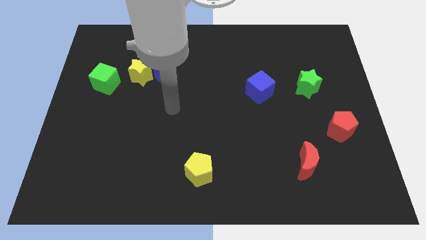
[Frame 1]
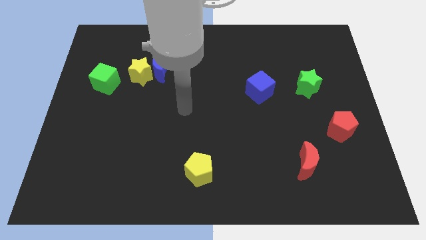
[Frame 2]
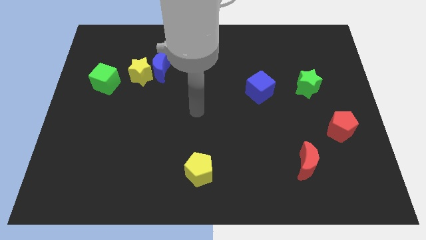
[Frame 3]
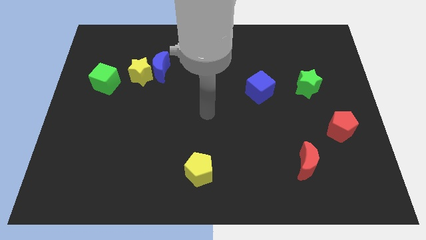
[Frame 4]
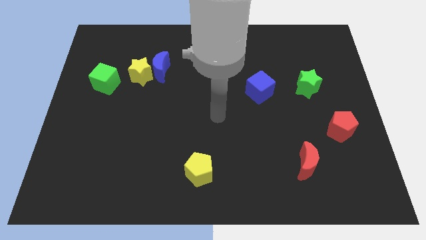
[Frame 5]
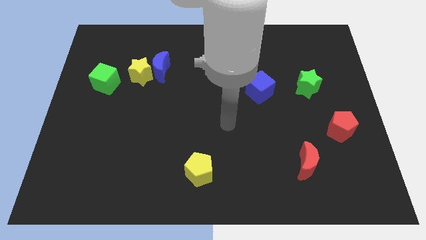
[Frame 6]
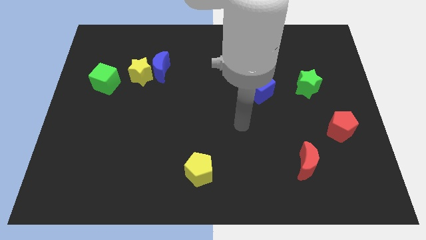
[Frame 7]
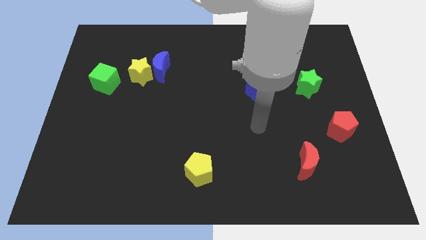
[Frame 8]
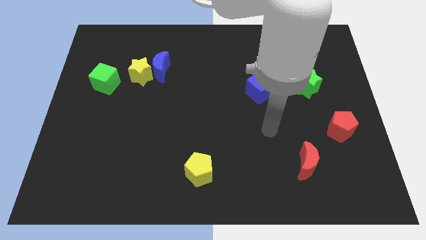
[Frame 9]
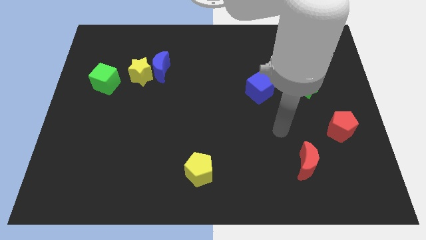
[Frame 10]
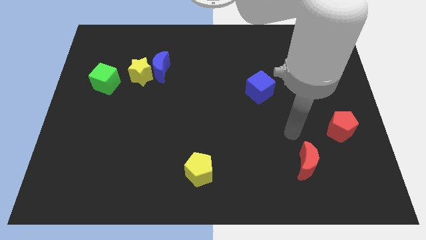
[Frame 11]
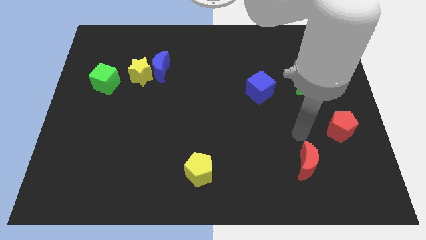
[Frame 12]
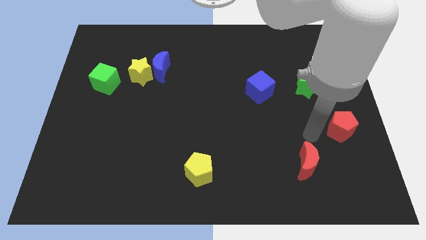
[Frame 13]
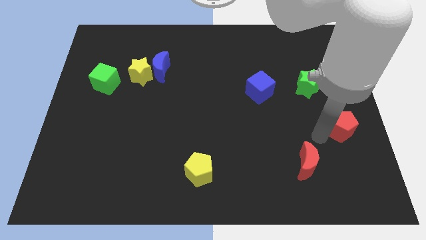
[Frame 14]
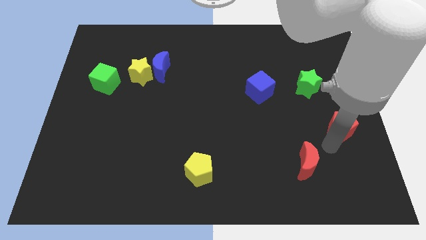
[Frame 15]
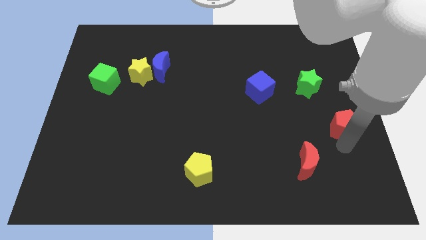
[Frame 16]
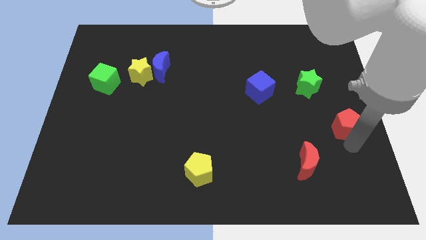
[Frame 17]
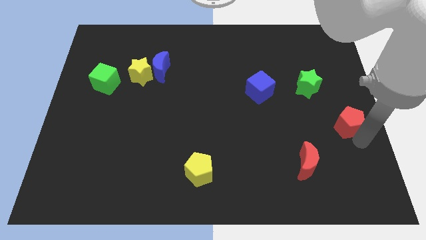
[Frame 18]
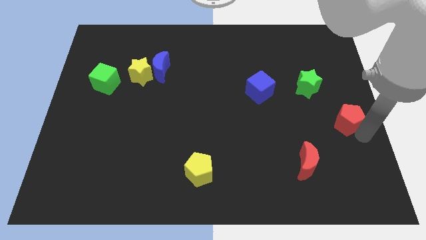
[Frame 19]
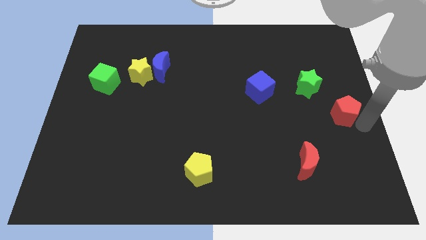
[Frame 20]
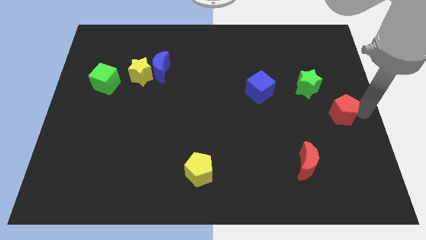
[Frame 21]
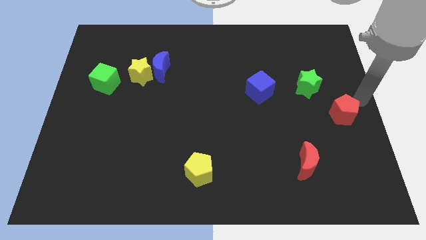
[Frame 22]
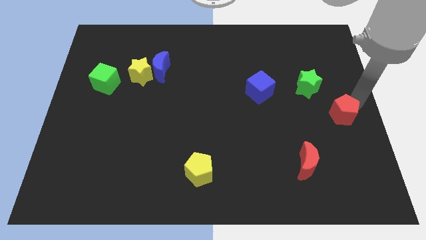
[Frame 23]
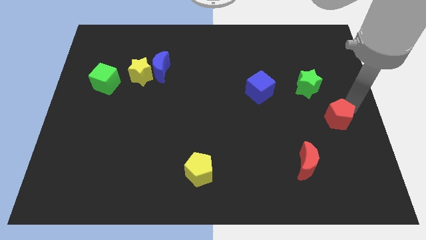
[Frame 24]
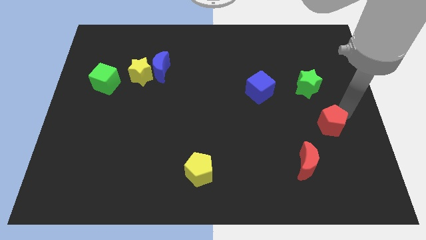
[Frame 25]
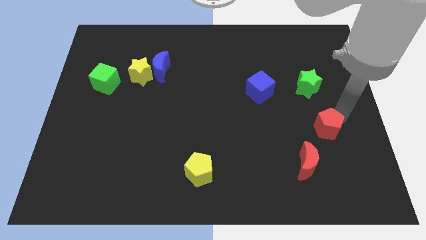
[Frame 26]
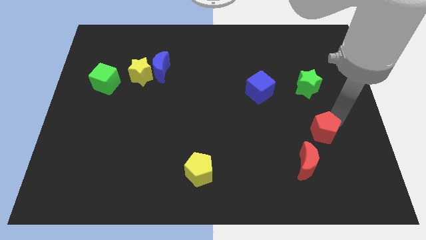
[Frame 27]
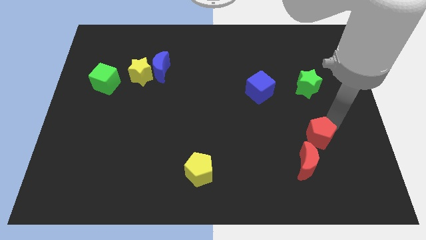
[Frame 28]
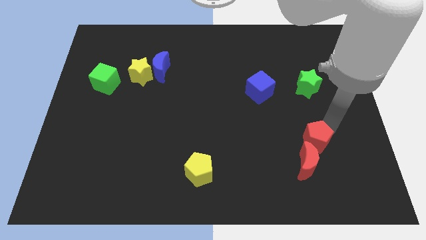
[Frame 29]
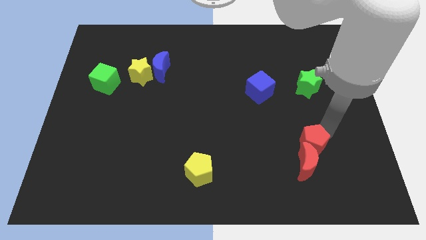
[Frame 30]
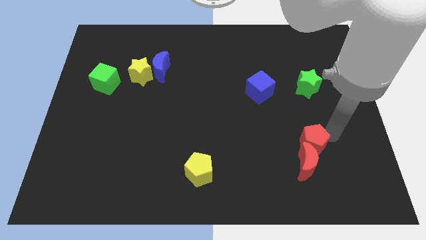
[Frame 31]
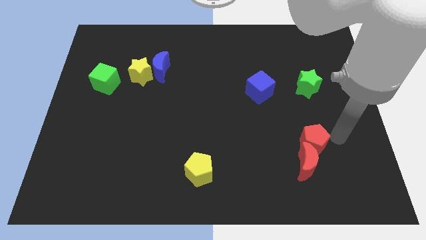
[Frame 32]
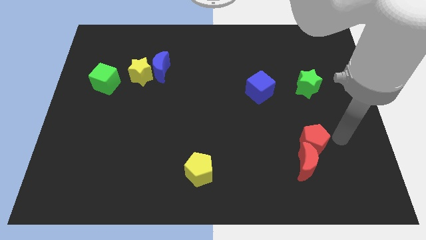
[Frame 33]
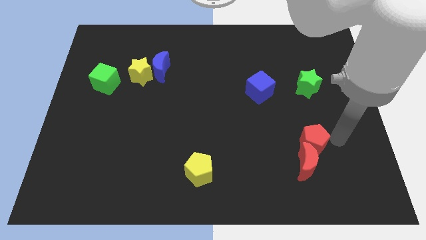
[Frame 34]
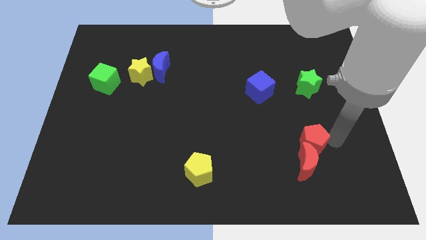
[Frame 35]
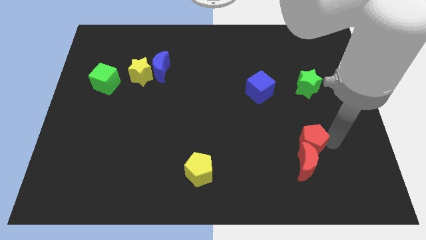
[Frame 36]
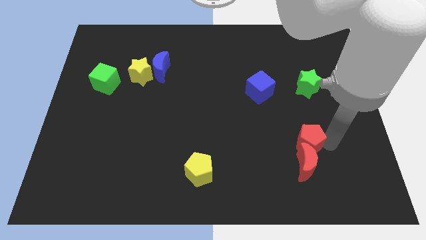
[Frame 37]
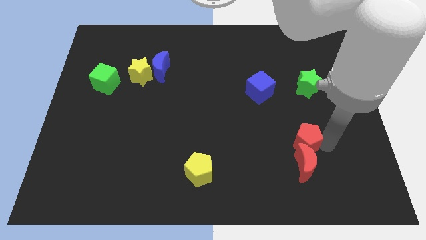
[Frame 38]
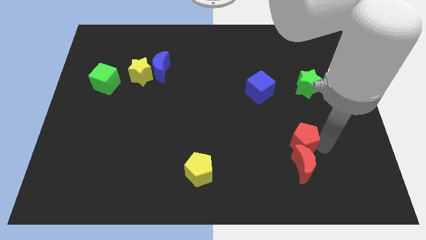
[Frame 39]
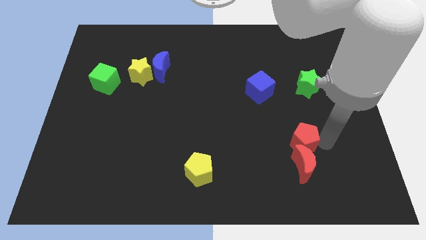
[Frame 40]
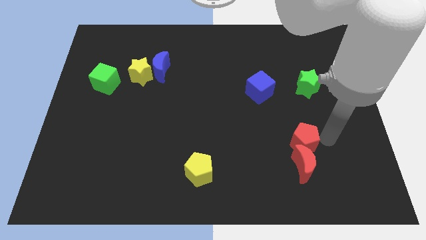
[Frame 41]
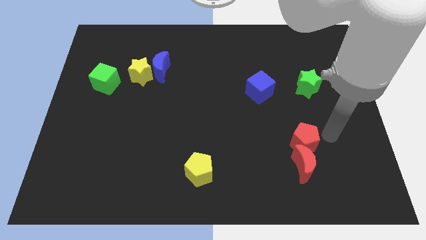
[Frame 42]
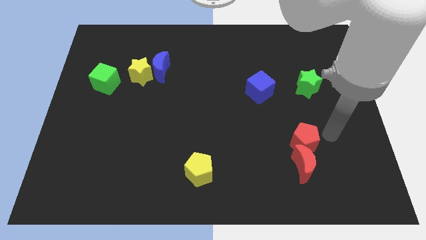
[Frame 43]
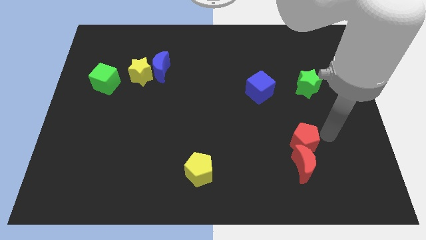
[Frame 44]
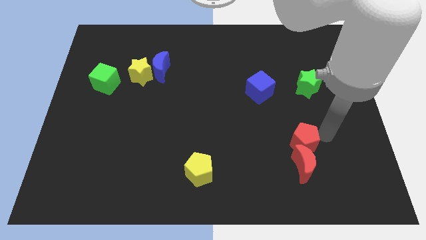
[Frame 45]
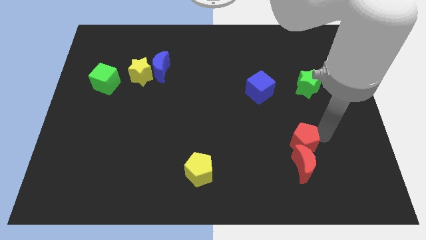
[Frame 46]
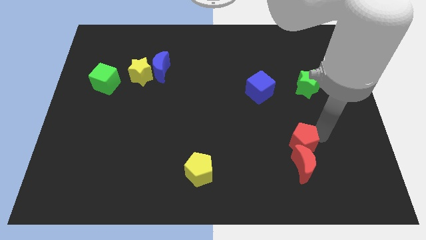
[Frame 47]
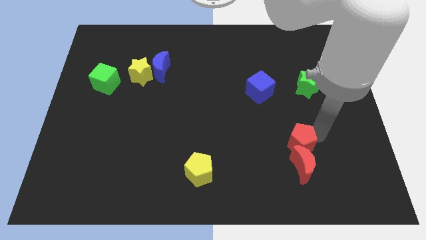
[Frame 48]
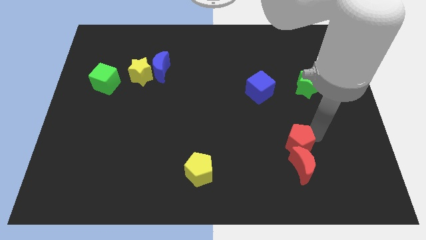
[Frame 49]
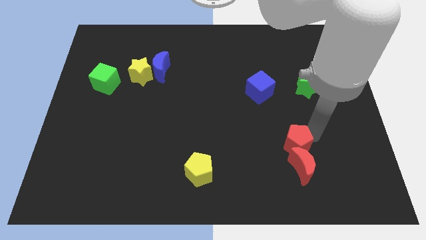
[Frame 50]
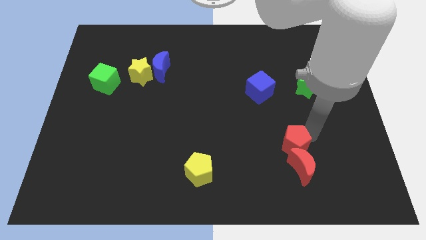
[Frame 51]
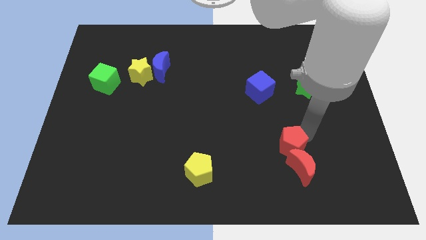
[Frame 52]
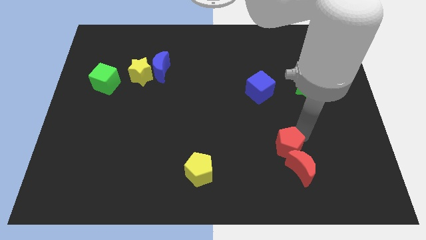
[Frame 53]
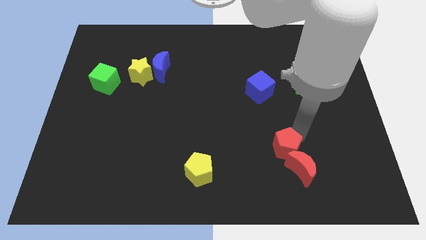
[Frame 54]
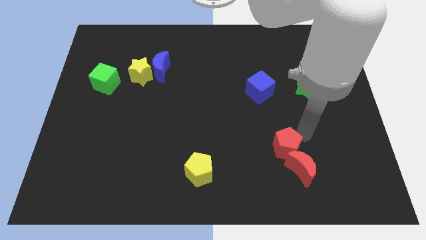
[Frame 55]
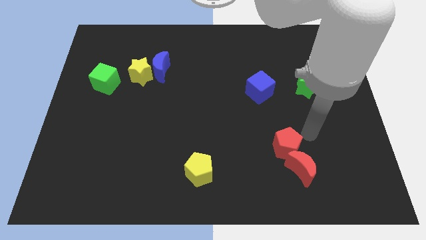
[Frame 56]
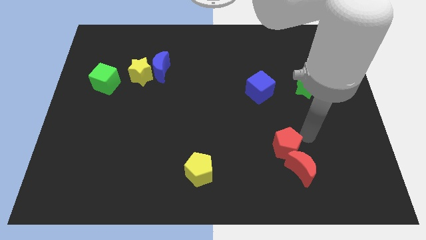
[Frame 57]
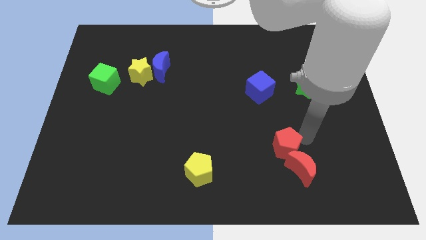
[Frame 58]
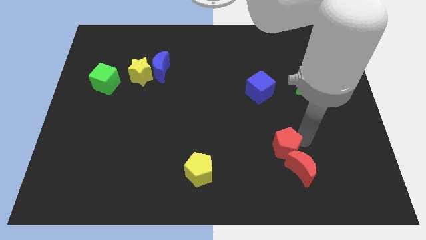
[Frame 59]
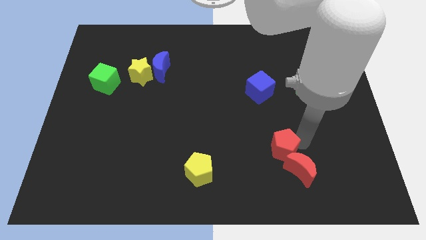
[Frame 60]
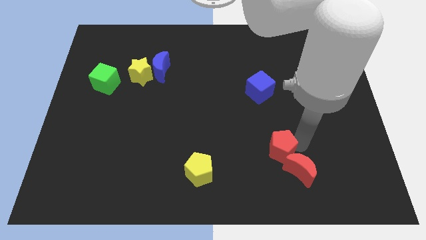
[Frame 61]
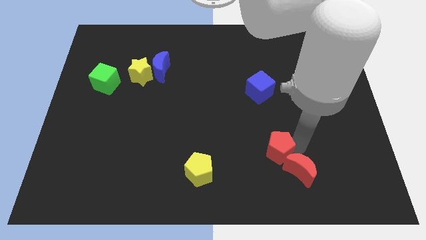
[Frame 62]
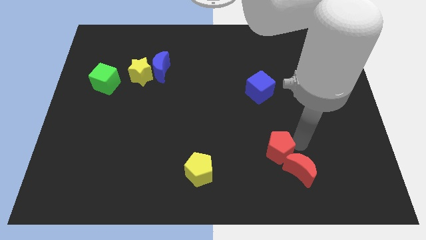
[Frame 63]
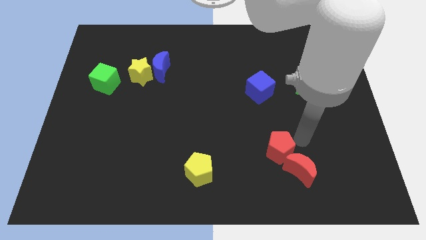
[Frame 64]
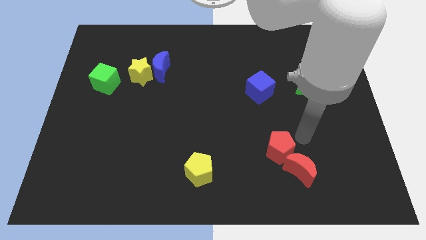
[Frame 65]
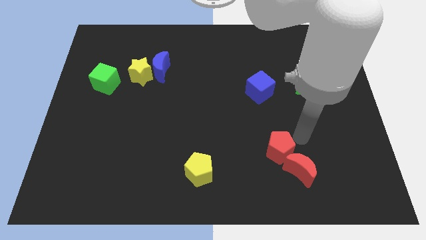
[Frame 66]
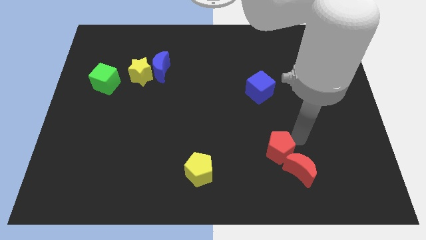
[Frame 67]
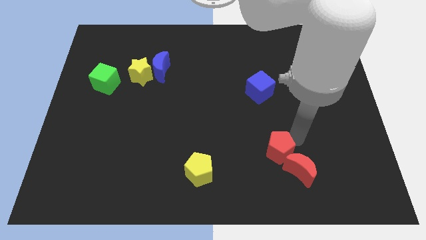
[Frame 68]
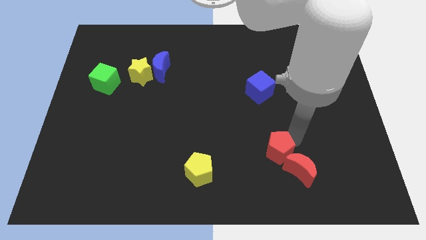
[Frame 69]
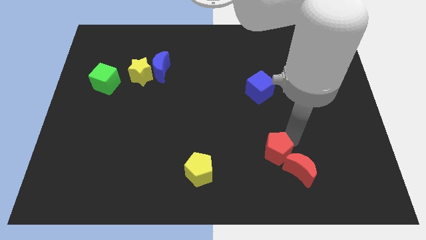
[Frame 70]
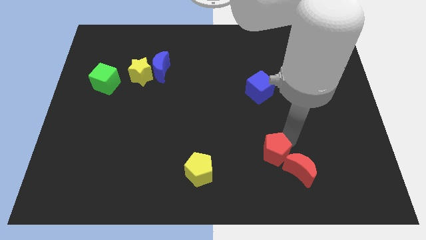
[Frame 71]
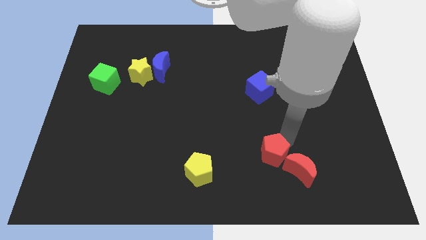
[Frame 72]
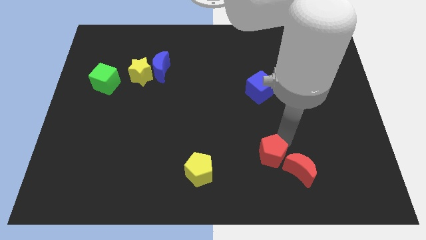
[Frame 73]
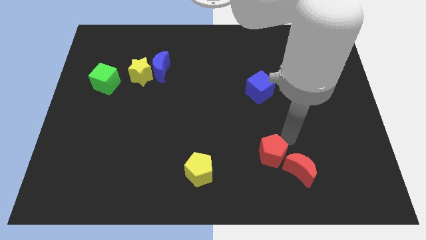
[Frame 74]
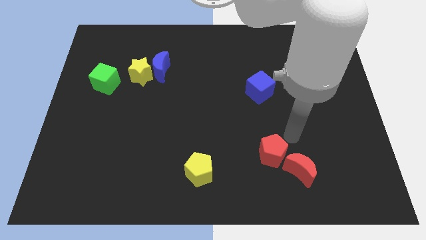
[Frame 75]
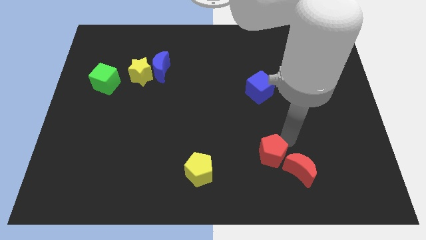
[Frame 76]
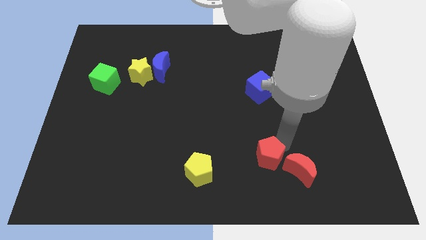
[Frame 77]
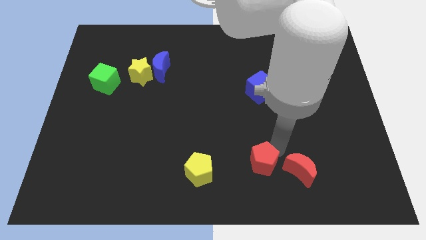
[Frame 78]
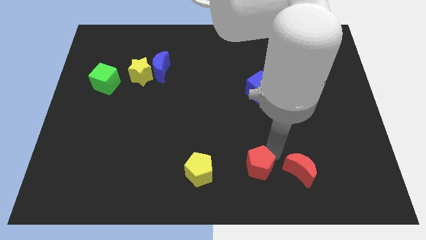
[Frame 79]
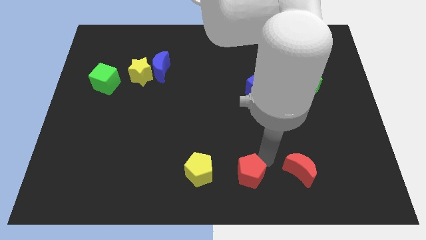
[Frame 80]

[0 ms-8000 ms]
put the red pentagon to the bottom side
